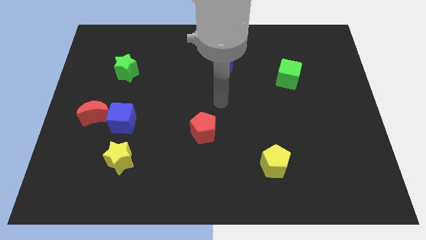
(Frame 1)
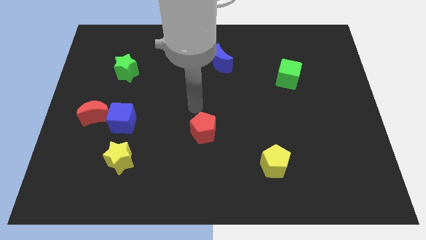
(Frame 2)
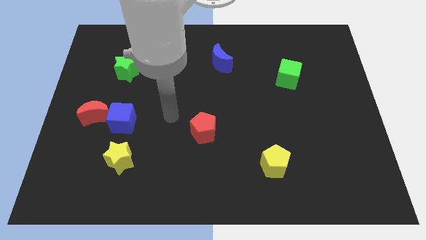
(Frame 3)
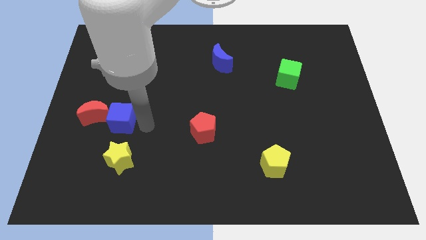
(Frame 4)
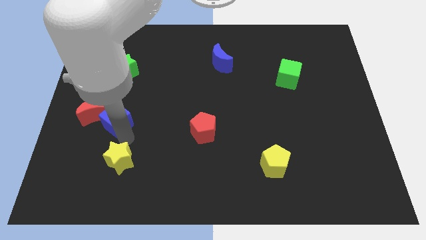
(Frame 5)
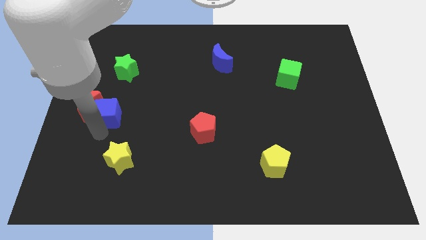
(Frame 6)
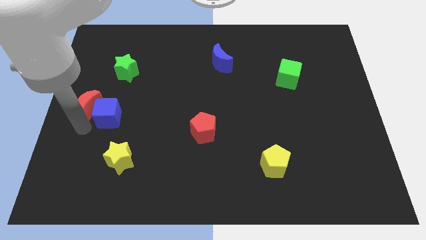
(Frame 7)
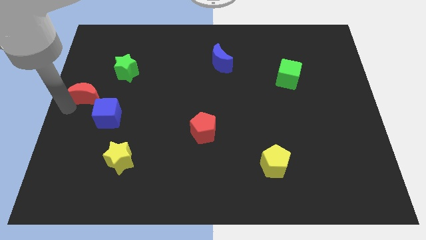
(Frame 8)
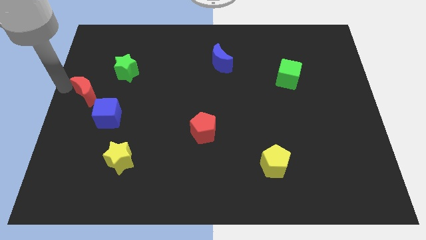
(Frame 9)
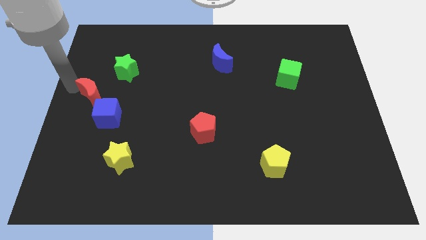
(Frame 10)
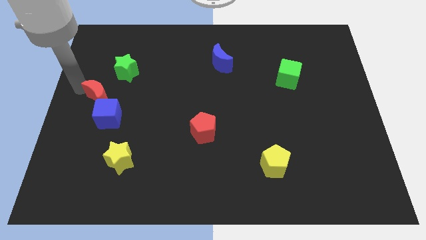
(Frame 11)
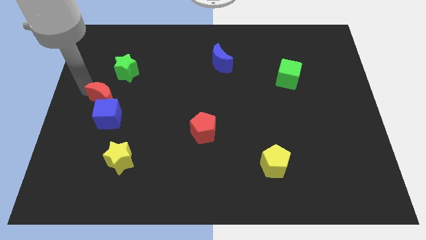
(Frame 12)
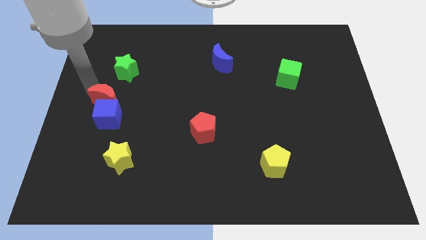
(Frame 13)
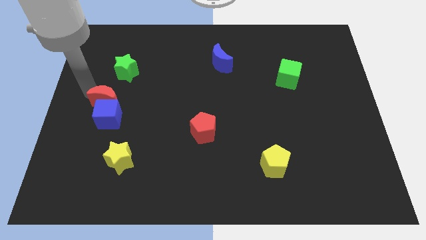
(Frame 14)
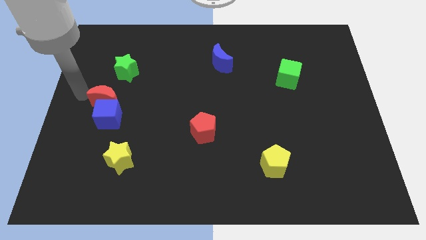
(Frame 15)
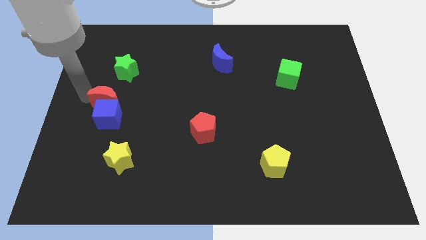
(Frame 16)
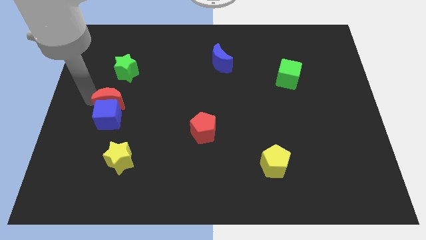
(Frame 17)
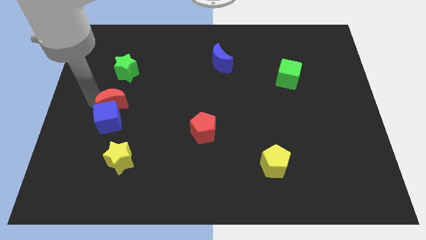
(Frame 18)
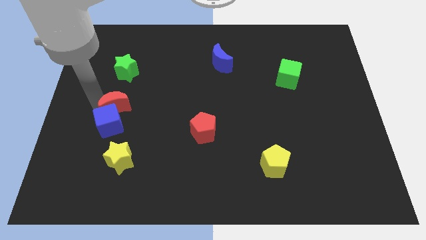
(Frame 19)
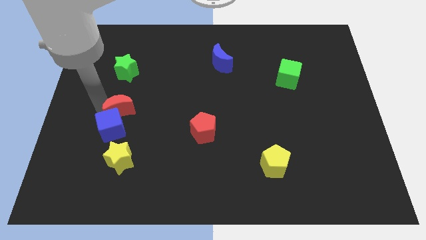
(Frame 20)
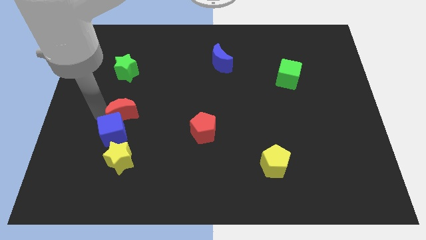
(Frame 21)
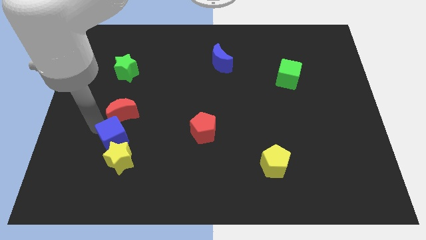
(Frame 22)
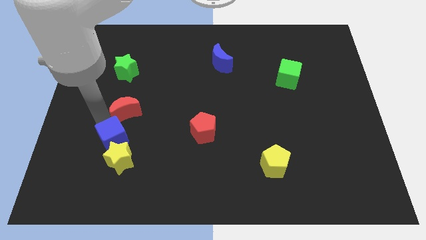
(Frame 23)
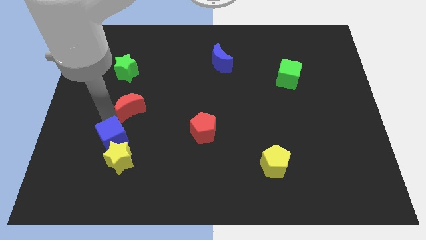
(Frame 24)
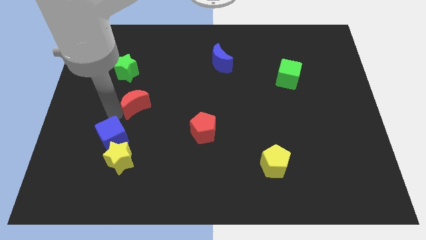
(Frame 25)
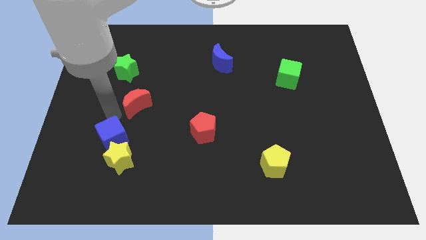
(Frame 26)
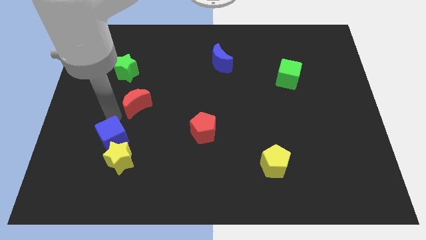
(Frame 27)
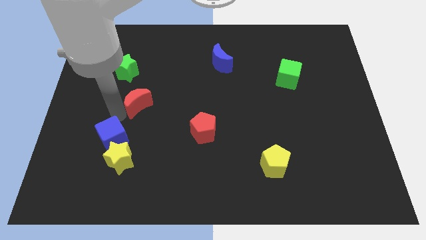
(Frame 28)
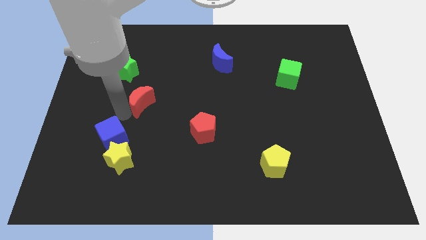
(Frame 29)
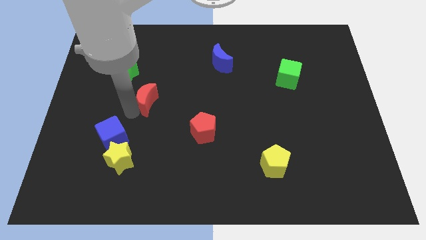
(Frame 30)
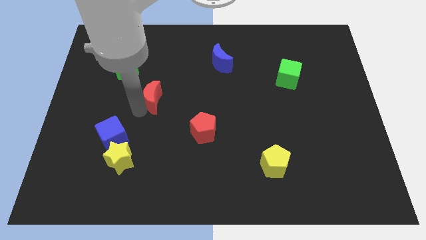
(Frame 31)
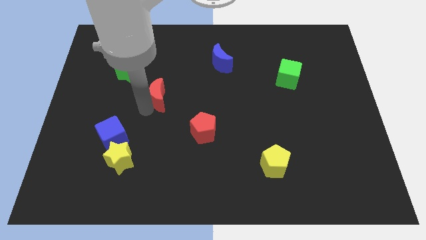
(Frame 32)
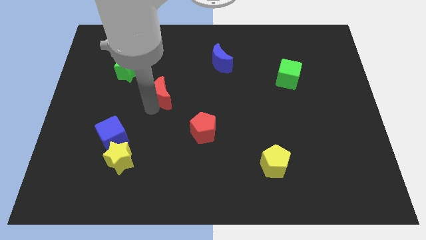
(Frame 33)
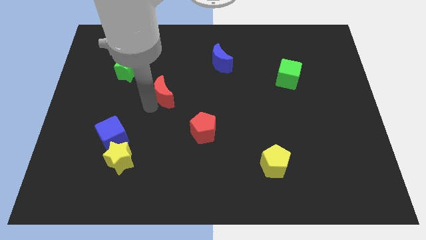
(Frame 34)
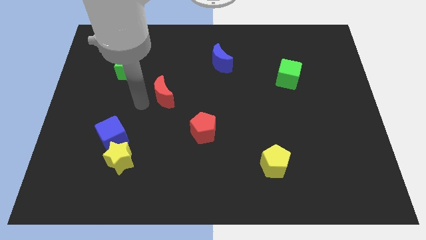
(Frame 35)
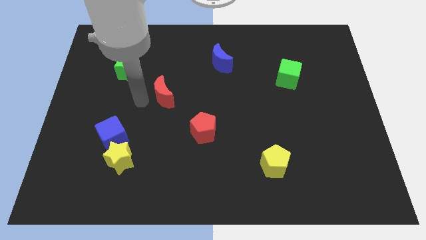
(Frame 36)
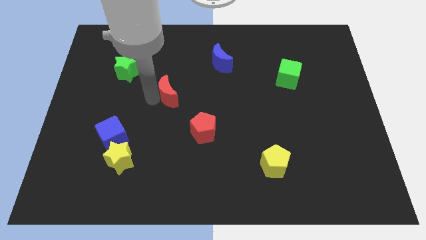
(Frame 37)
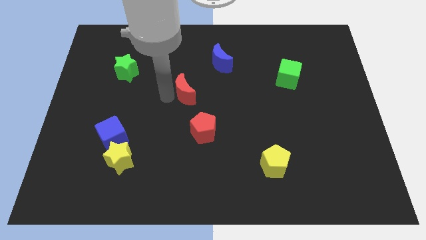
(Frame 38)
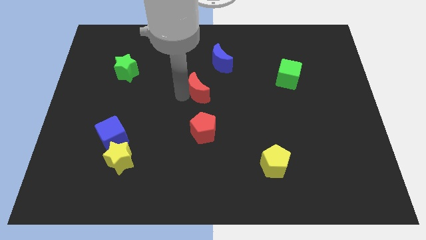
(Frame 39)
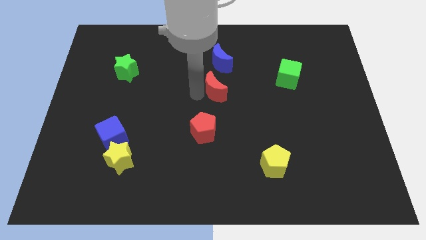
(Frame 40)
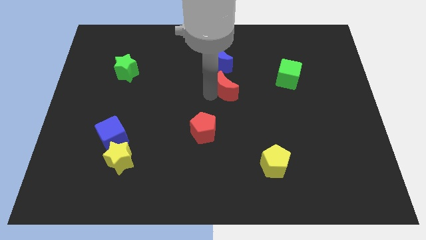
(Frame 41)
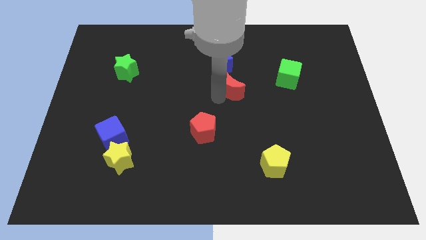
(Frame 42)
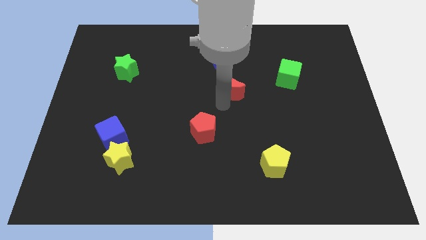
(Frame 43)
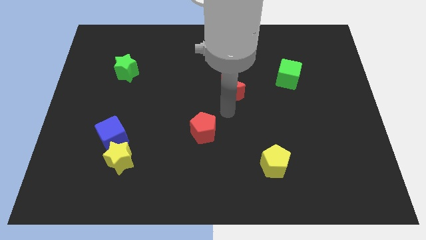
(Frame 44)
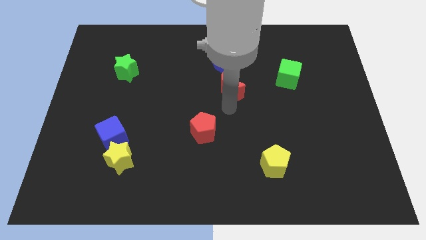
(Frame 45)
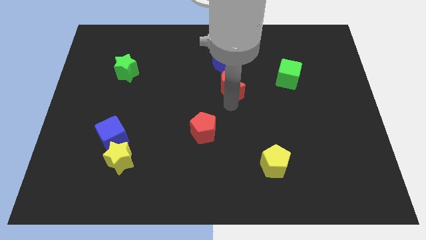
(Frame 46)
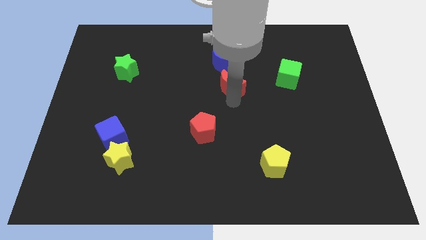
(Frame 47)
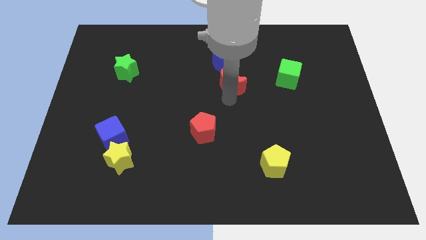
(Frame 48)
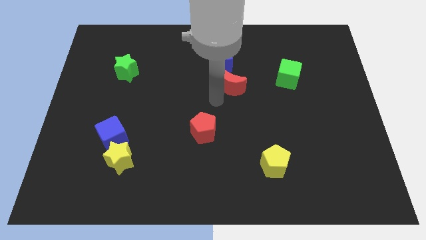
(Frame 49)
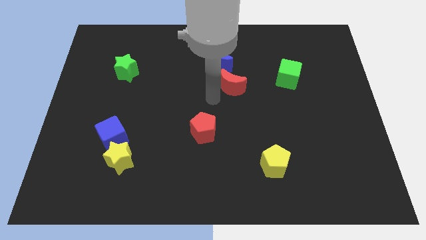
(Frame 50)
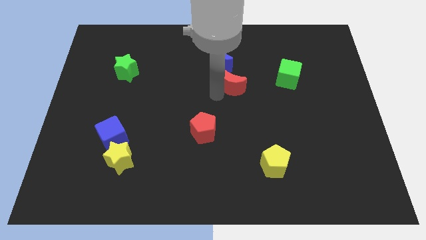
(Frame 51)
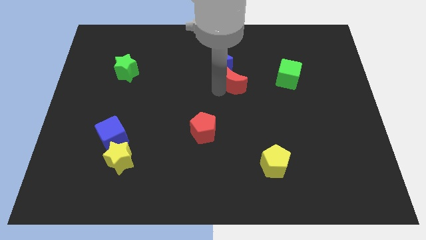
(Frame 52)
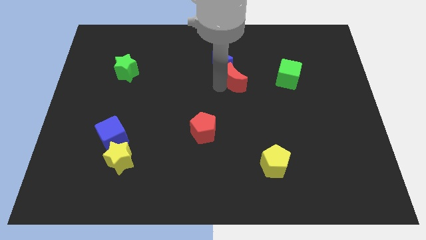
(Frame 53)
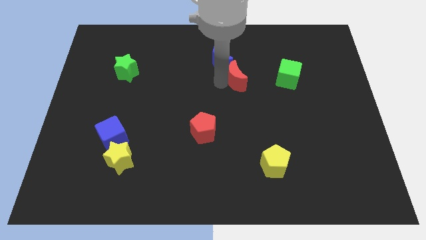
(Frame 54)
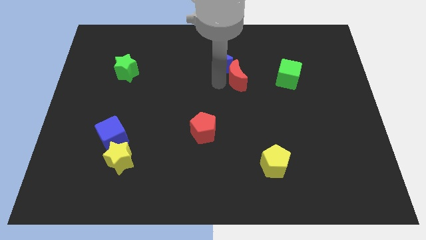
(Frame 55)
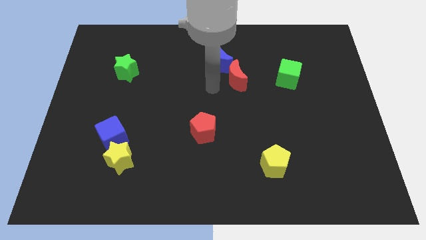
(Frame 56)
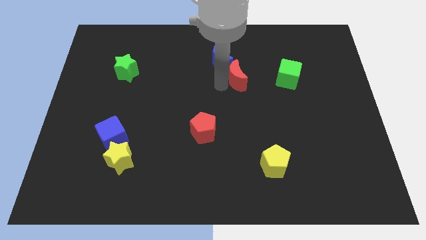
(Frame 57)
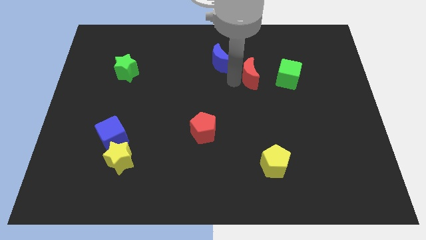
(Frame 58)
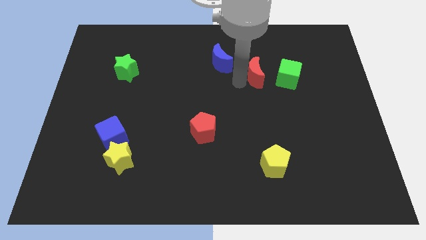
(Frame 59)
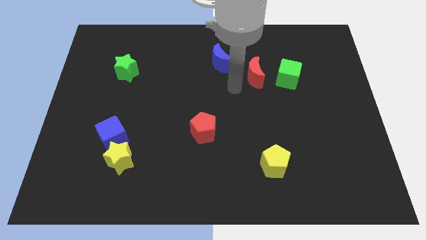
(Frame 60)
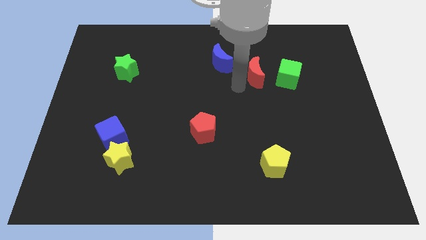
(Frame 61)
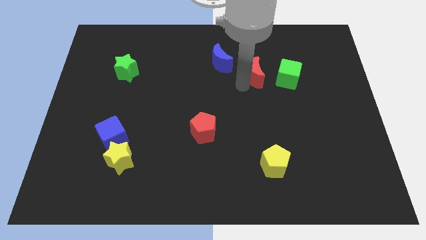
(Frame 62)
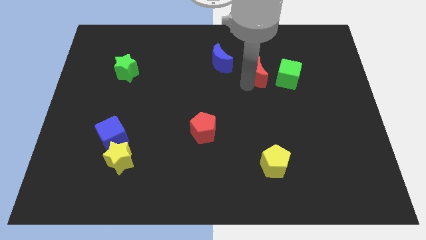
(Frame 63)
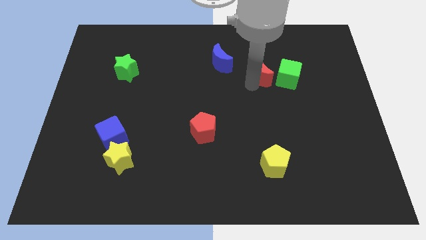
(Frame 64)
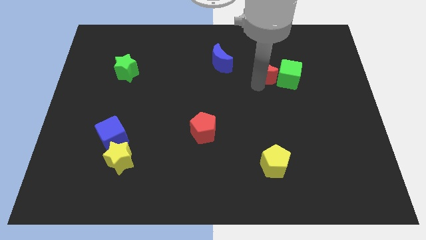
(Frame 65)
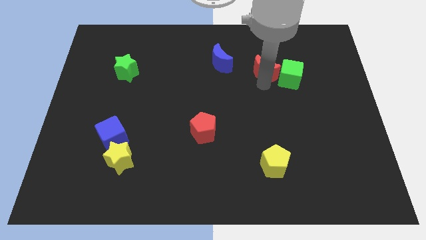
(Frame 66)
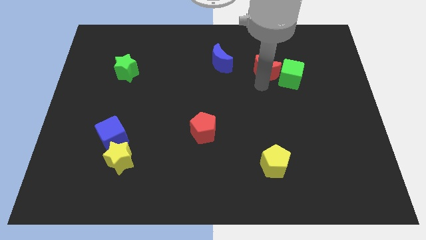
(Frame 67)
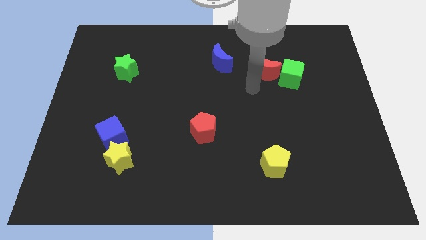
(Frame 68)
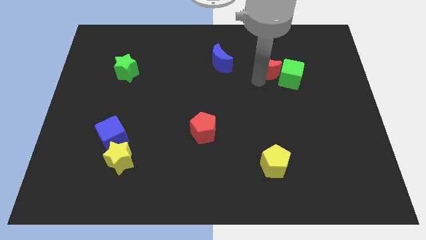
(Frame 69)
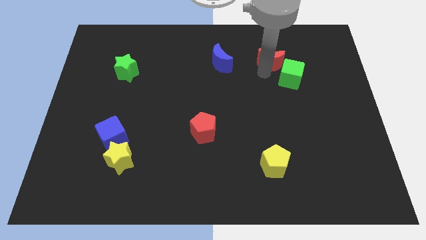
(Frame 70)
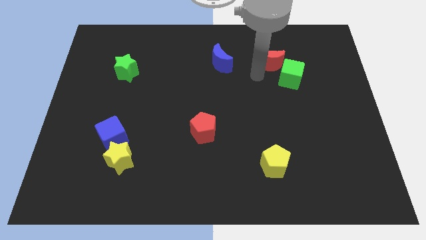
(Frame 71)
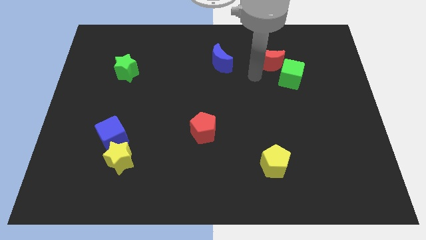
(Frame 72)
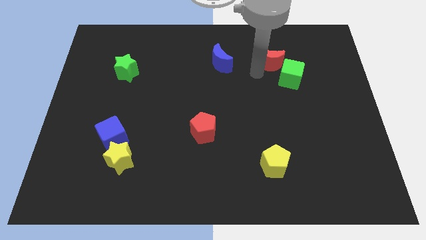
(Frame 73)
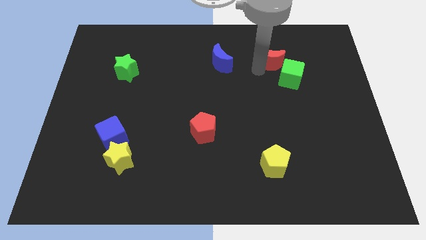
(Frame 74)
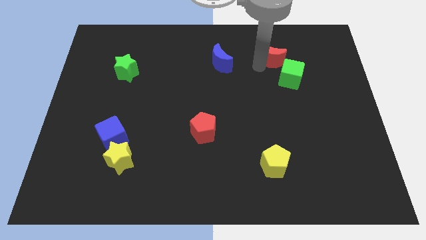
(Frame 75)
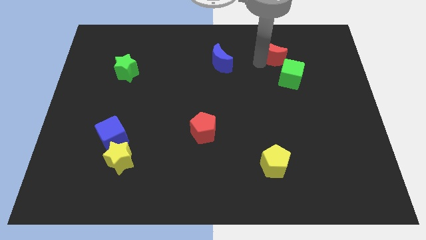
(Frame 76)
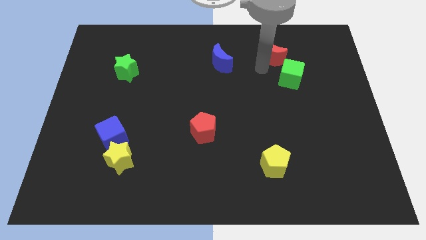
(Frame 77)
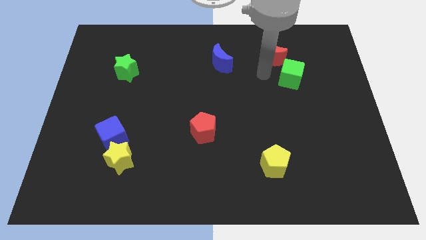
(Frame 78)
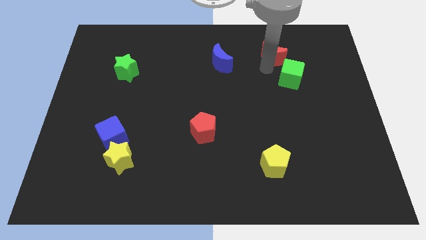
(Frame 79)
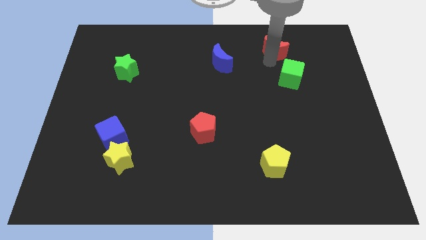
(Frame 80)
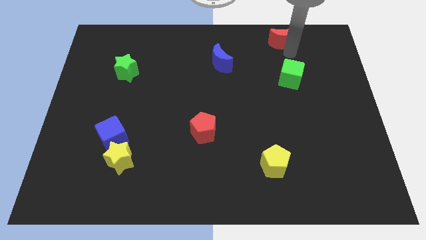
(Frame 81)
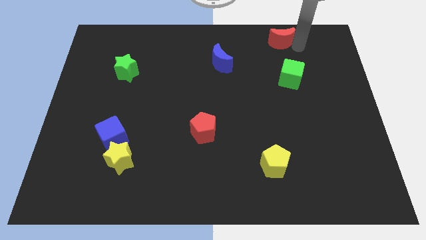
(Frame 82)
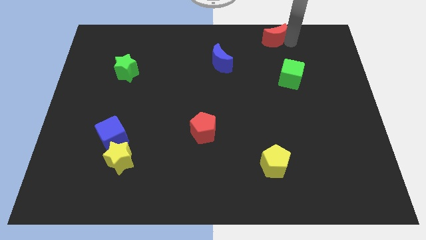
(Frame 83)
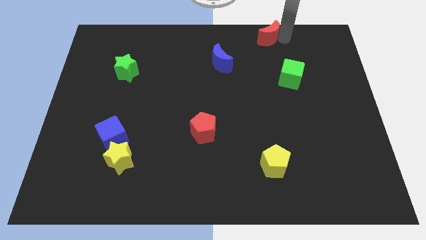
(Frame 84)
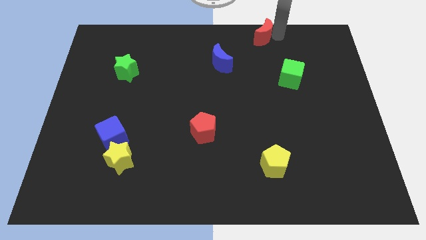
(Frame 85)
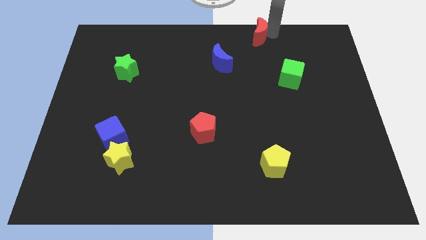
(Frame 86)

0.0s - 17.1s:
put the red moon to the top side
